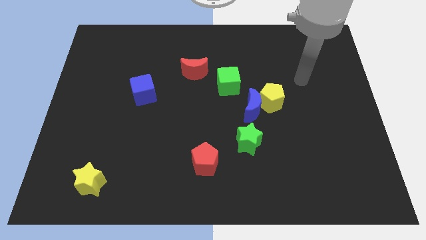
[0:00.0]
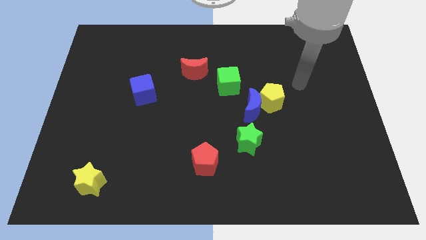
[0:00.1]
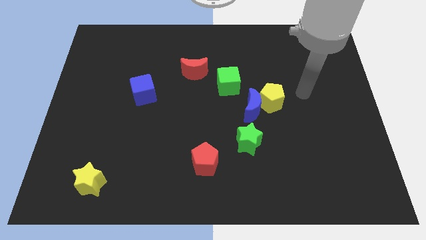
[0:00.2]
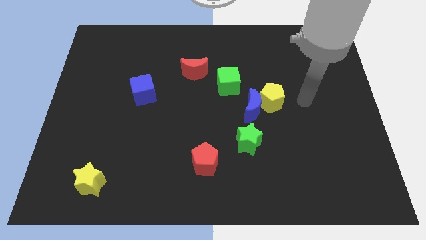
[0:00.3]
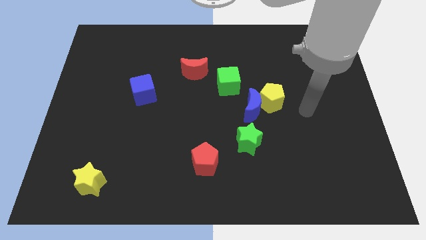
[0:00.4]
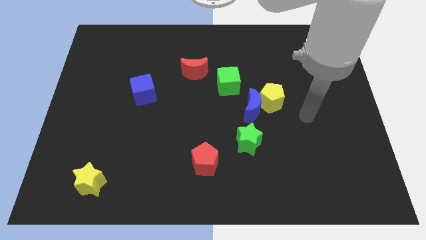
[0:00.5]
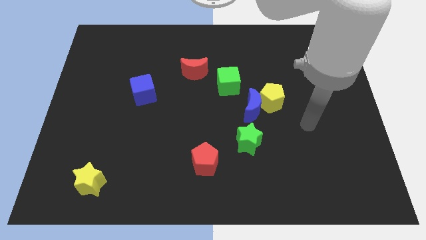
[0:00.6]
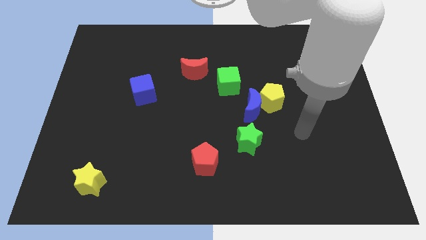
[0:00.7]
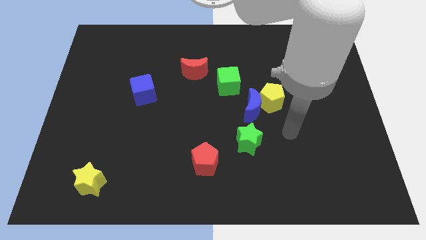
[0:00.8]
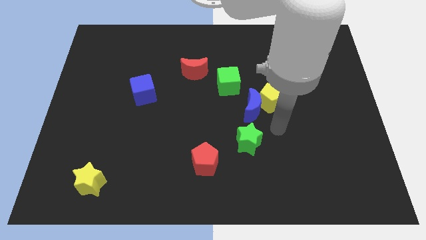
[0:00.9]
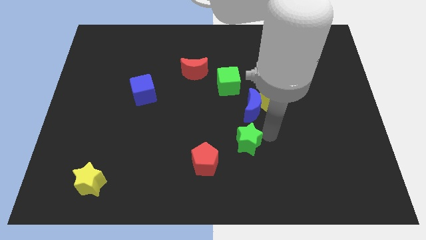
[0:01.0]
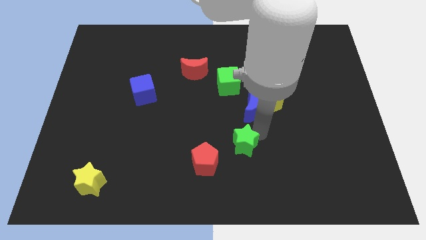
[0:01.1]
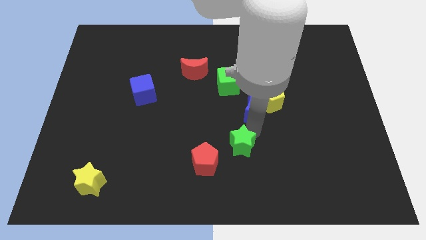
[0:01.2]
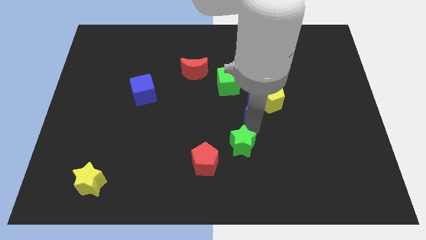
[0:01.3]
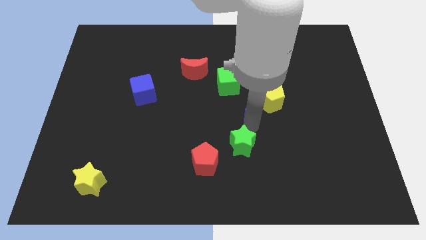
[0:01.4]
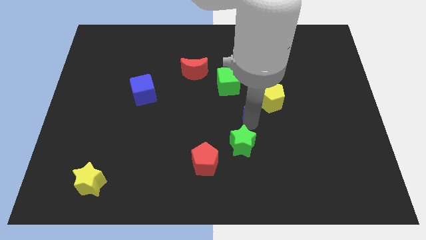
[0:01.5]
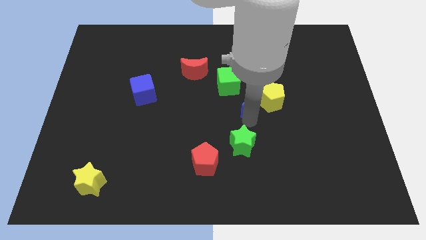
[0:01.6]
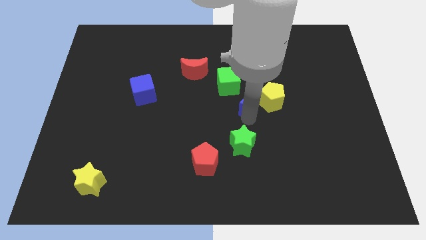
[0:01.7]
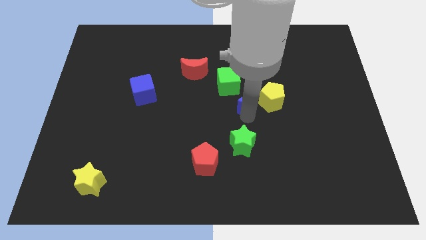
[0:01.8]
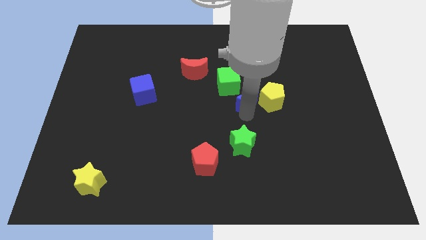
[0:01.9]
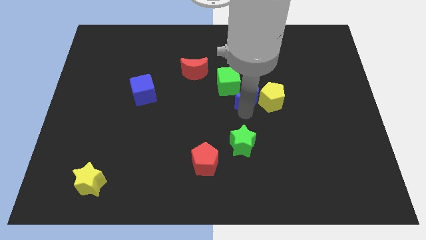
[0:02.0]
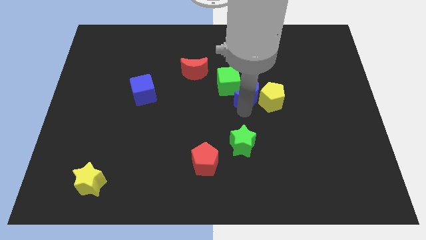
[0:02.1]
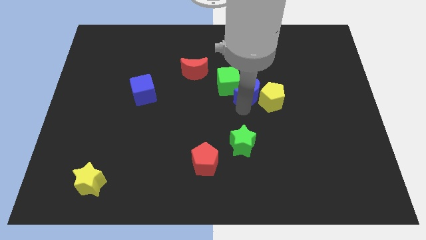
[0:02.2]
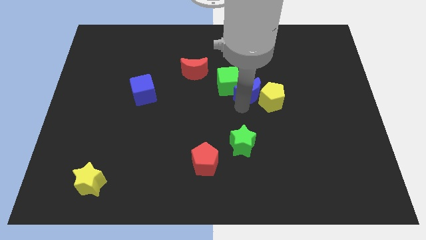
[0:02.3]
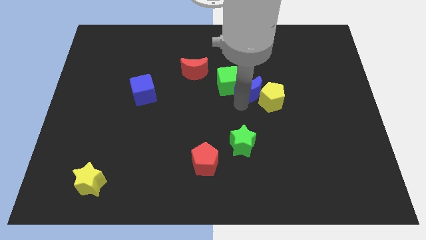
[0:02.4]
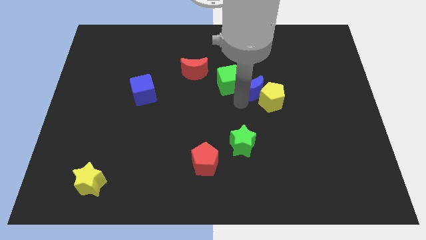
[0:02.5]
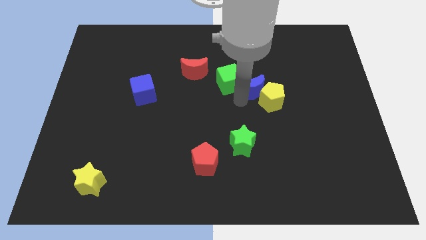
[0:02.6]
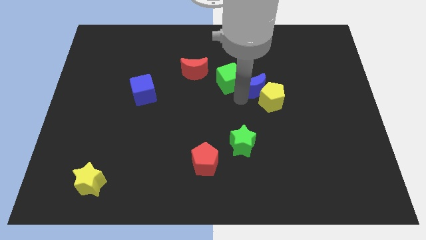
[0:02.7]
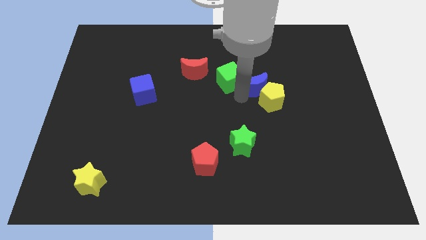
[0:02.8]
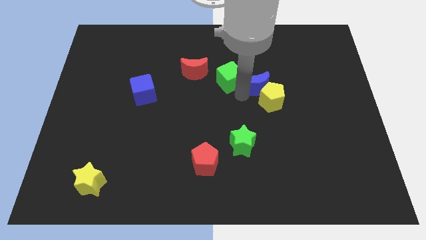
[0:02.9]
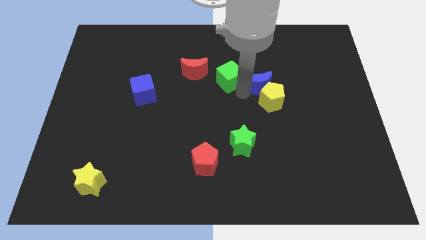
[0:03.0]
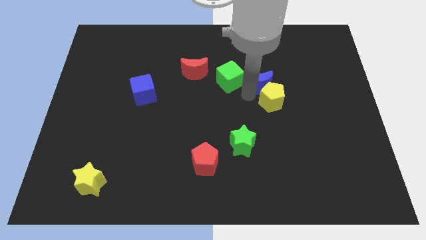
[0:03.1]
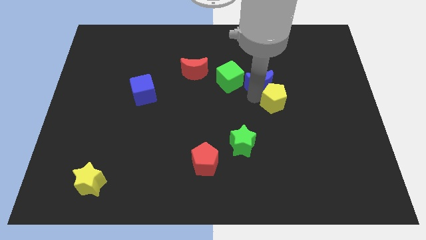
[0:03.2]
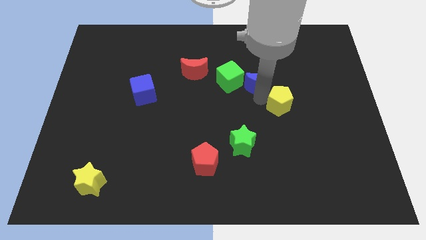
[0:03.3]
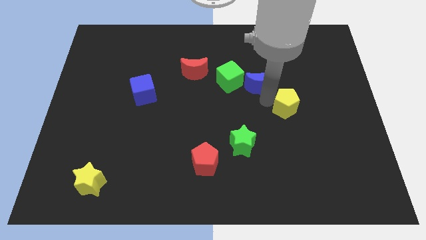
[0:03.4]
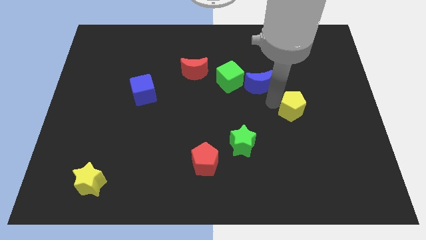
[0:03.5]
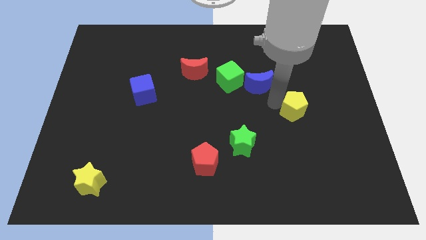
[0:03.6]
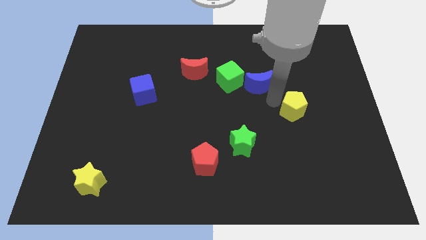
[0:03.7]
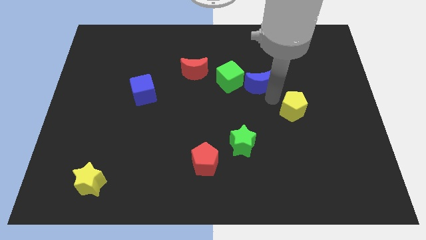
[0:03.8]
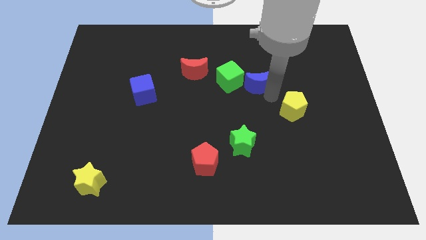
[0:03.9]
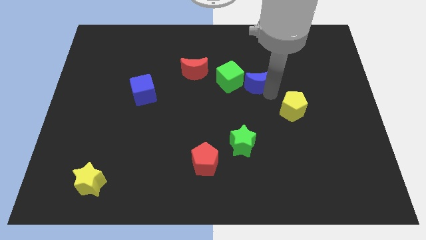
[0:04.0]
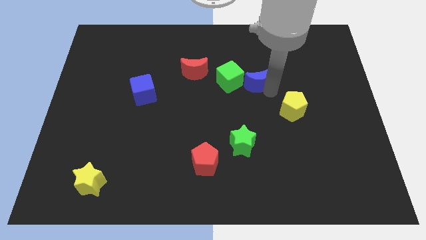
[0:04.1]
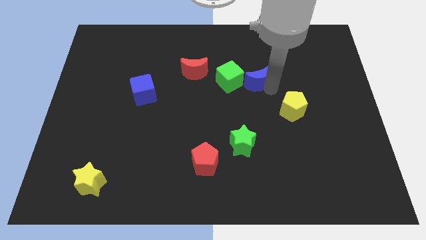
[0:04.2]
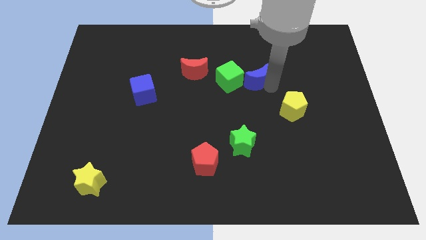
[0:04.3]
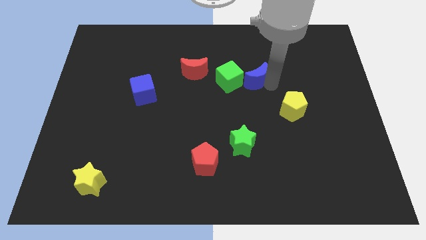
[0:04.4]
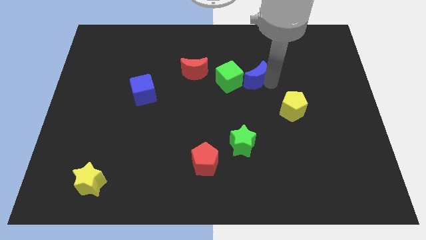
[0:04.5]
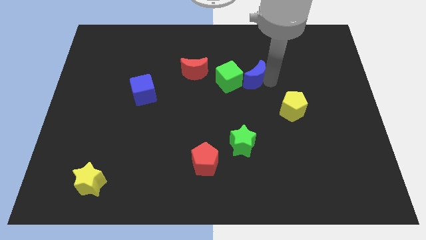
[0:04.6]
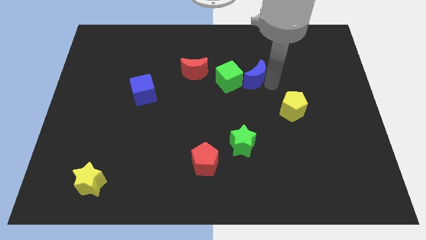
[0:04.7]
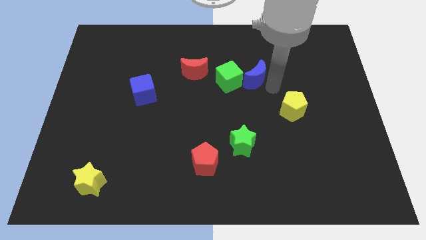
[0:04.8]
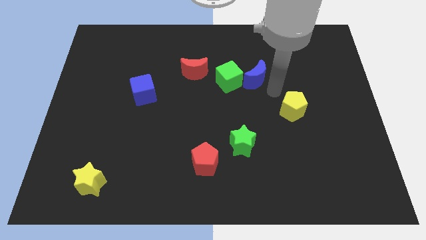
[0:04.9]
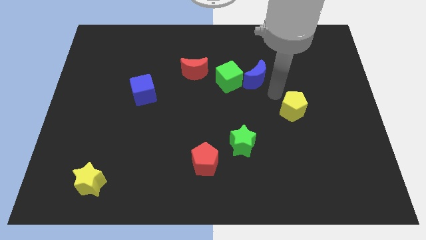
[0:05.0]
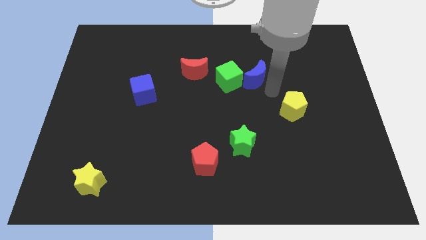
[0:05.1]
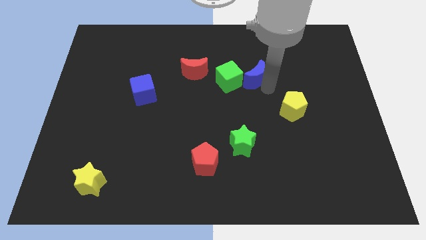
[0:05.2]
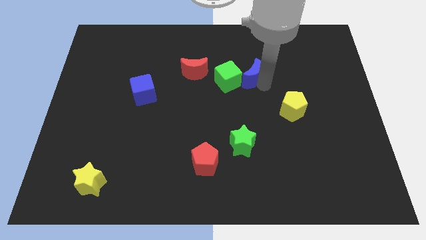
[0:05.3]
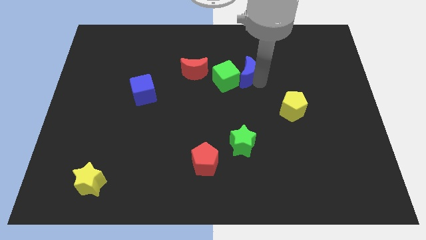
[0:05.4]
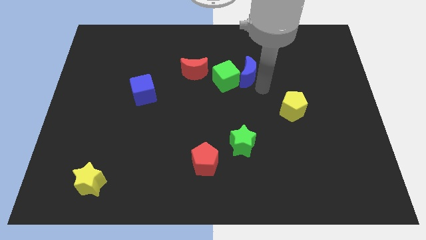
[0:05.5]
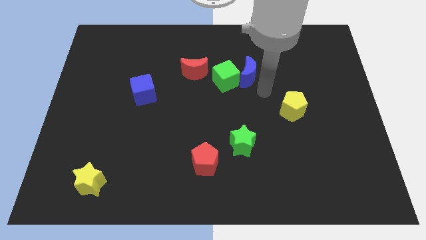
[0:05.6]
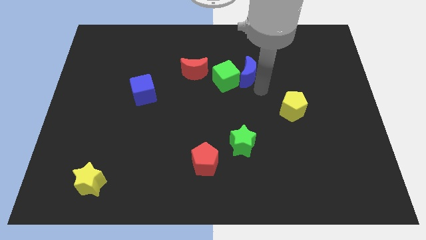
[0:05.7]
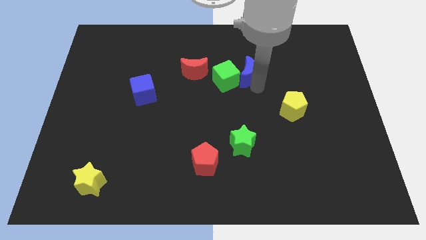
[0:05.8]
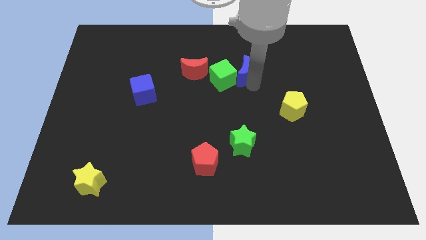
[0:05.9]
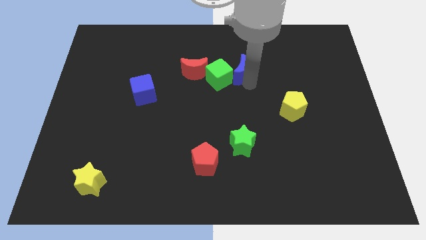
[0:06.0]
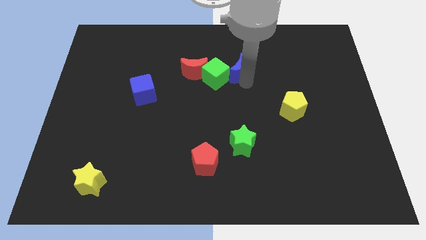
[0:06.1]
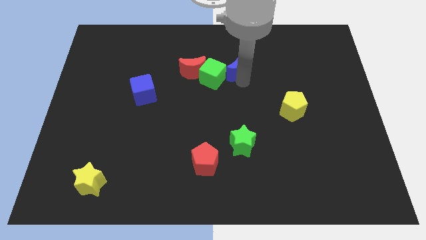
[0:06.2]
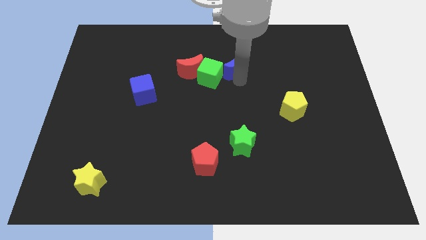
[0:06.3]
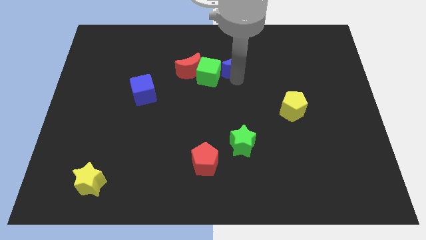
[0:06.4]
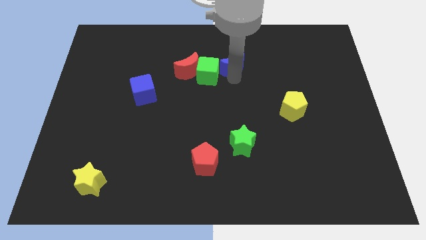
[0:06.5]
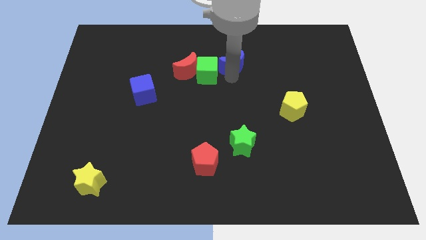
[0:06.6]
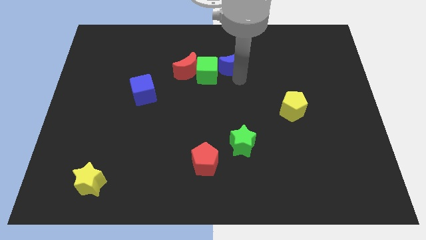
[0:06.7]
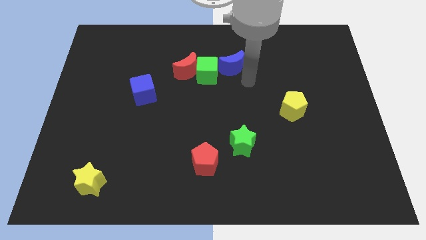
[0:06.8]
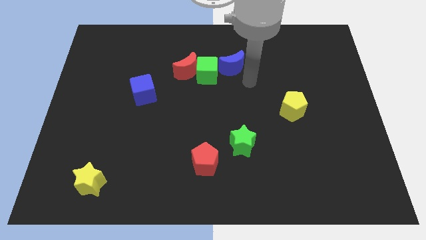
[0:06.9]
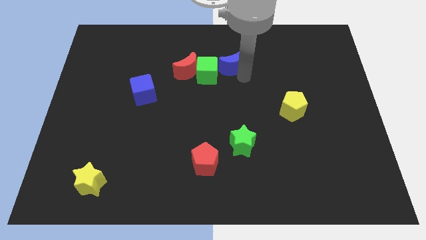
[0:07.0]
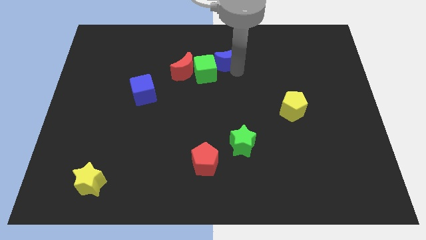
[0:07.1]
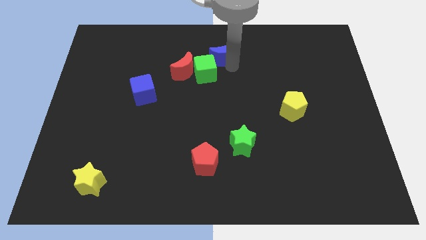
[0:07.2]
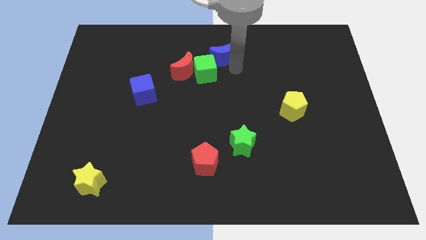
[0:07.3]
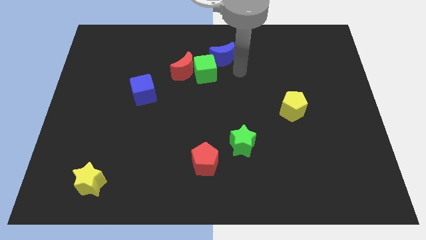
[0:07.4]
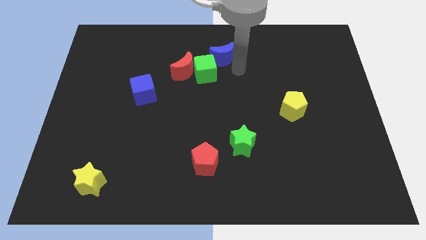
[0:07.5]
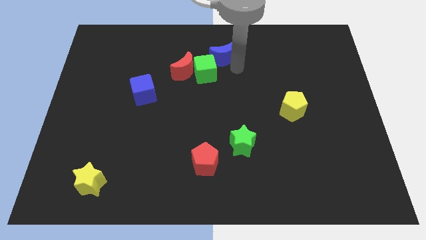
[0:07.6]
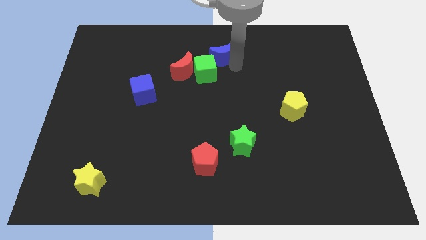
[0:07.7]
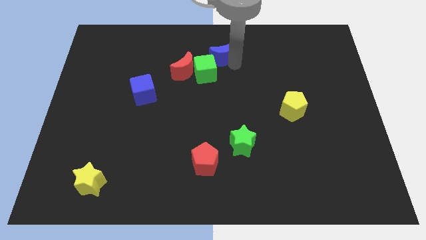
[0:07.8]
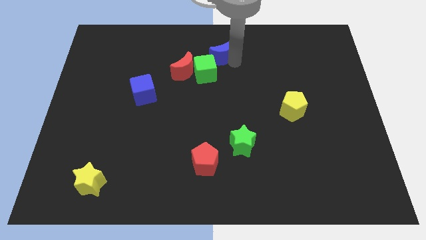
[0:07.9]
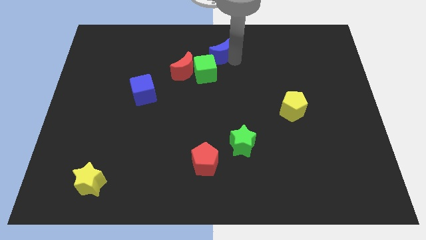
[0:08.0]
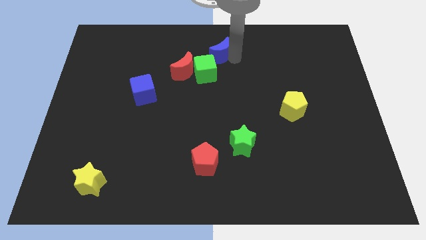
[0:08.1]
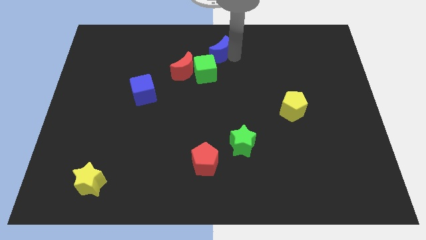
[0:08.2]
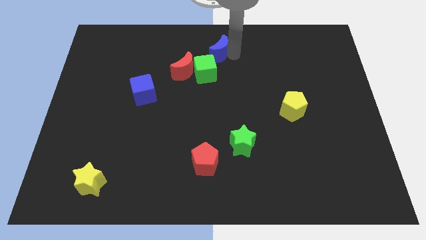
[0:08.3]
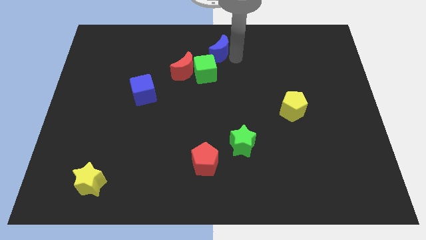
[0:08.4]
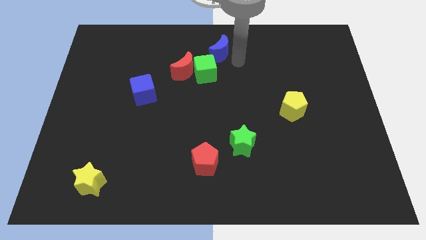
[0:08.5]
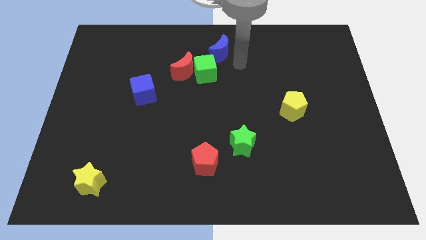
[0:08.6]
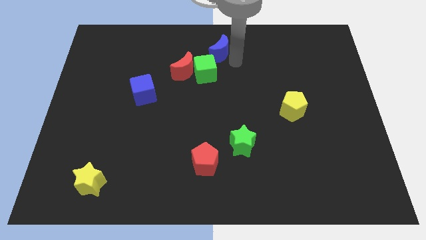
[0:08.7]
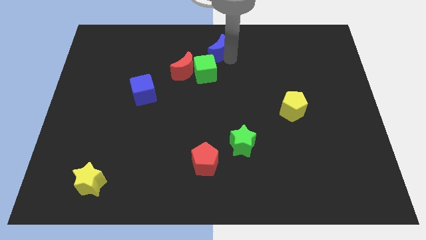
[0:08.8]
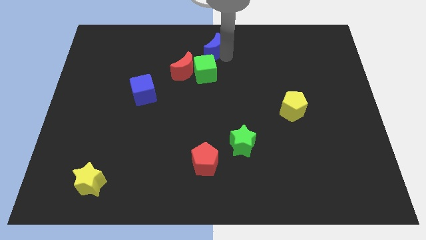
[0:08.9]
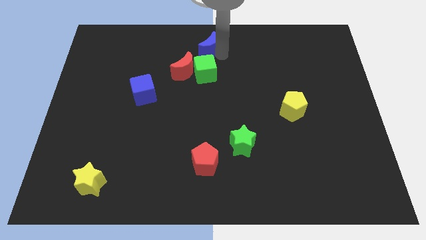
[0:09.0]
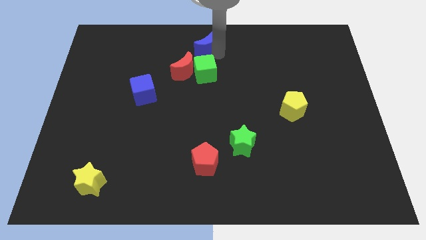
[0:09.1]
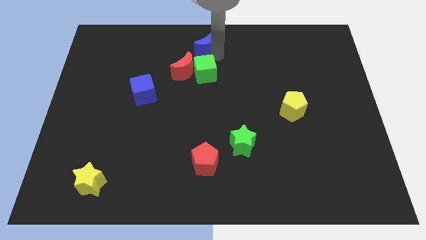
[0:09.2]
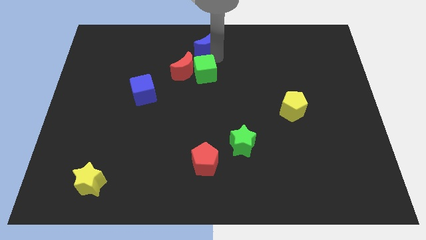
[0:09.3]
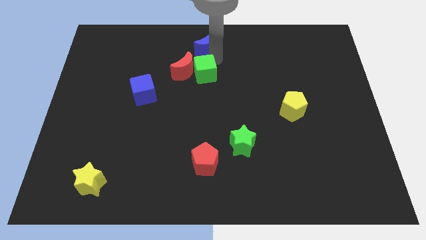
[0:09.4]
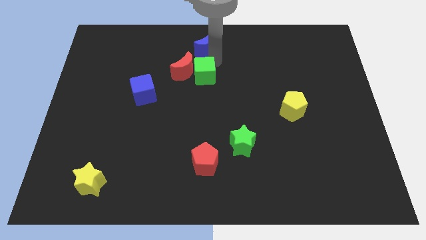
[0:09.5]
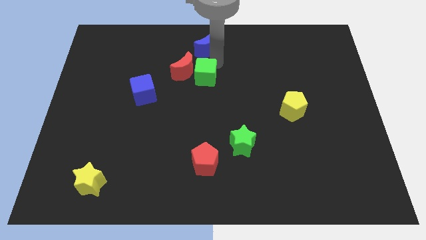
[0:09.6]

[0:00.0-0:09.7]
put the blue moon to the top side of the green cube
